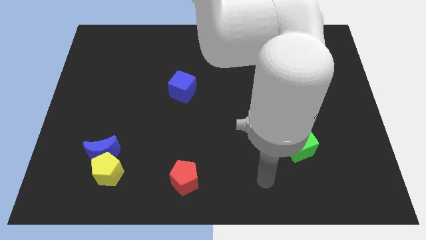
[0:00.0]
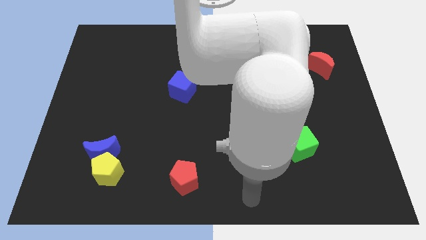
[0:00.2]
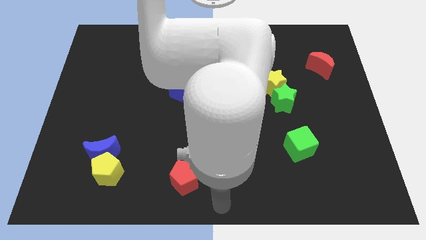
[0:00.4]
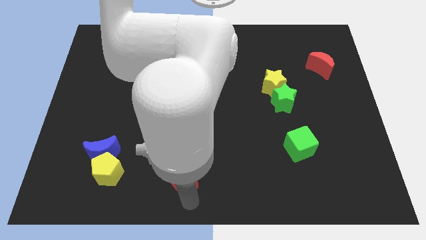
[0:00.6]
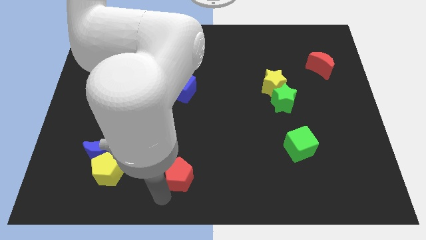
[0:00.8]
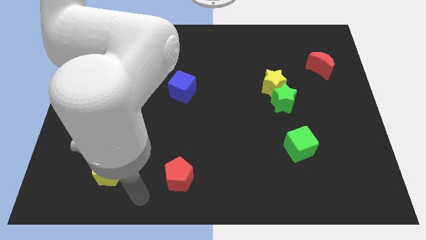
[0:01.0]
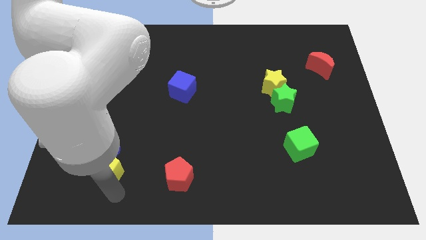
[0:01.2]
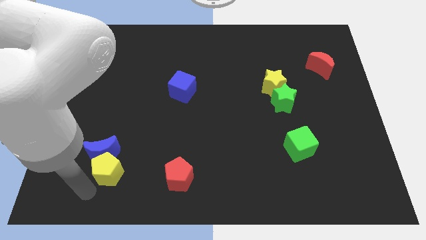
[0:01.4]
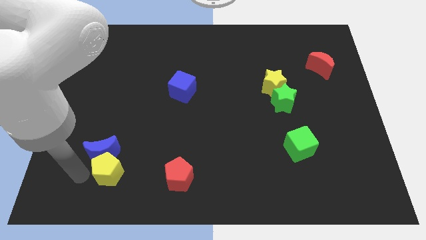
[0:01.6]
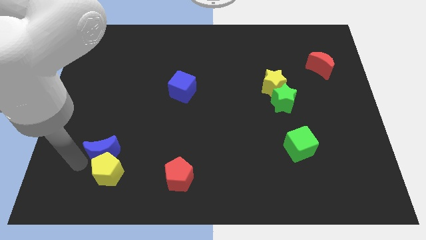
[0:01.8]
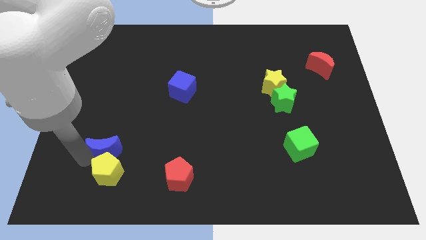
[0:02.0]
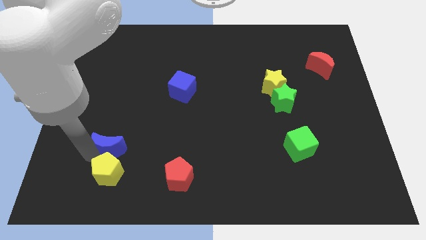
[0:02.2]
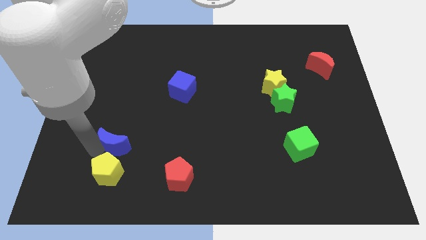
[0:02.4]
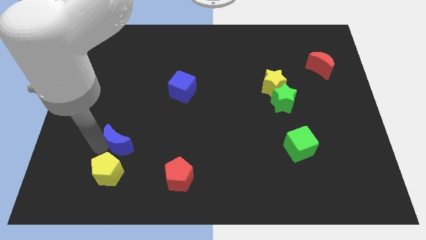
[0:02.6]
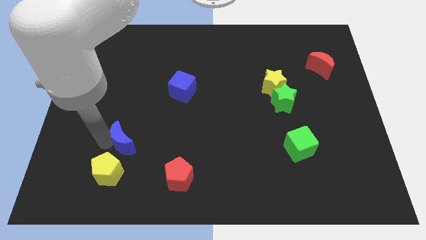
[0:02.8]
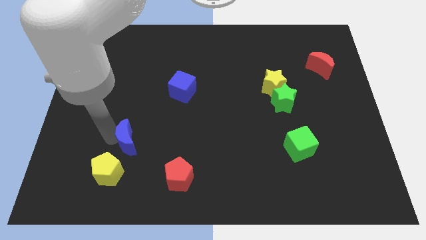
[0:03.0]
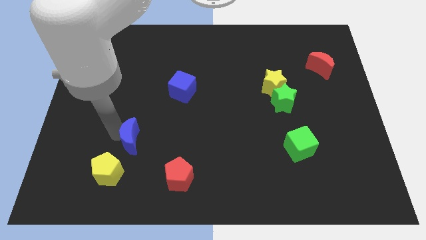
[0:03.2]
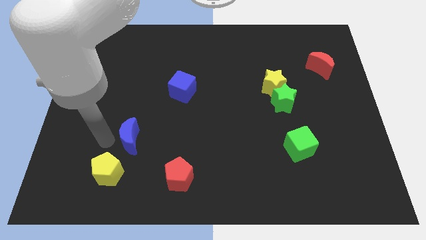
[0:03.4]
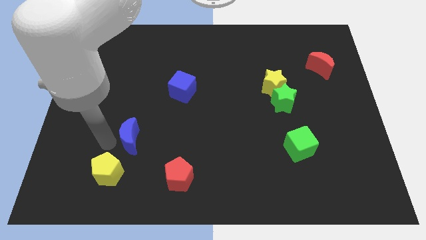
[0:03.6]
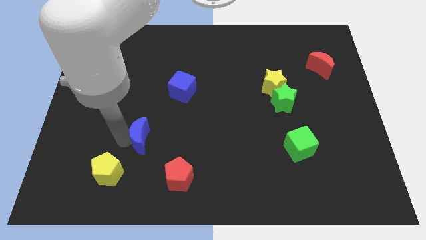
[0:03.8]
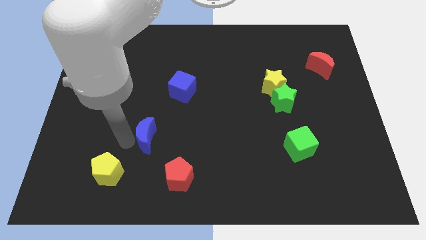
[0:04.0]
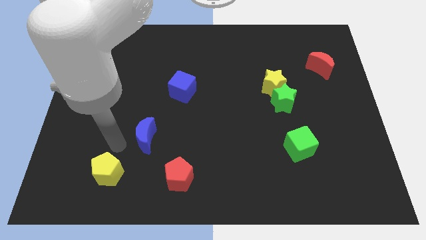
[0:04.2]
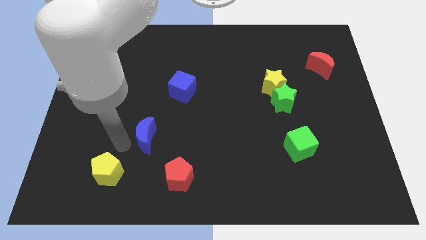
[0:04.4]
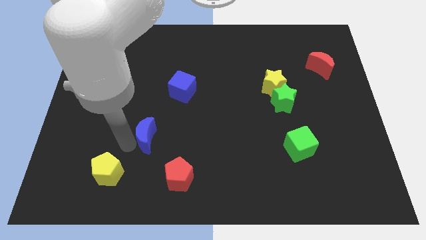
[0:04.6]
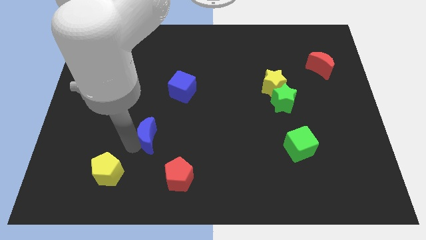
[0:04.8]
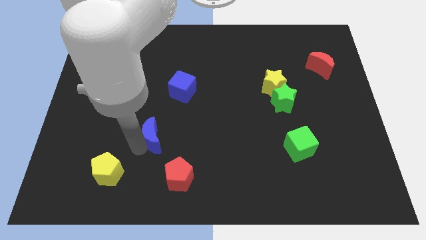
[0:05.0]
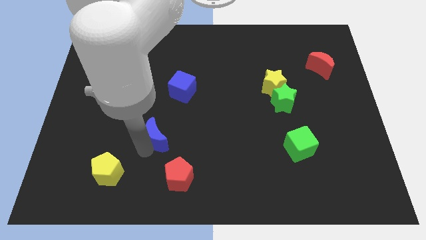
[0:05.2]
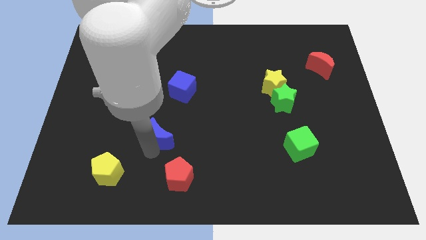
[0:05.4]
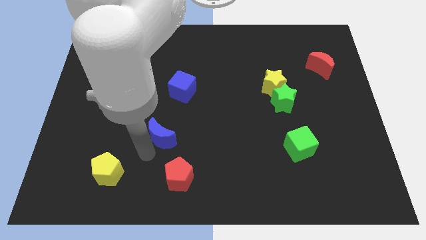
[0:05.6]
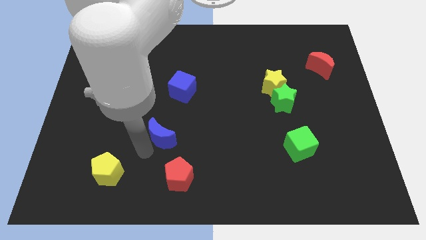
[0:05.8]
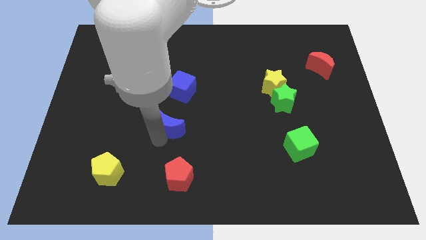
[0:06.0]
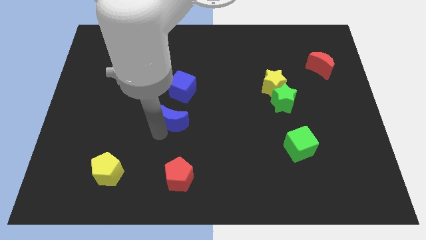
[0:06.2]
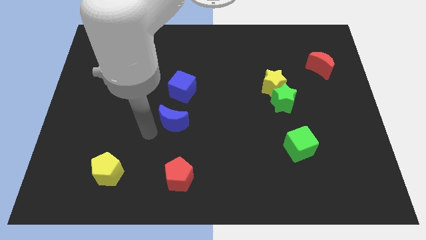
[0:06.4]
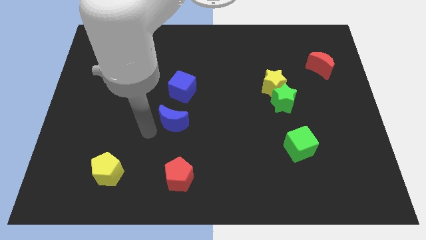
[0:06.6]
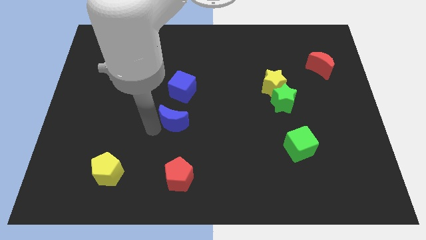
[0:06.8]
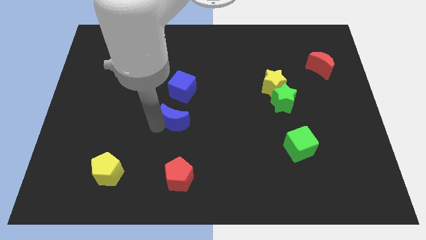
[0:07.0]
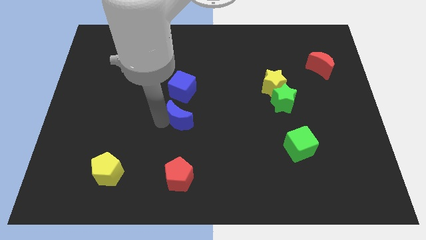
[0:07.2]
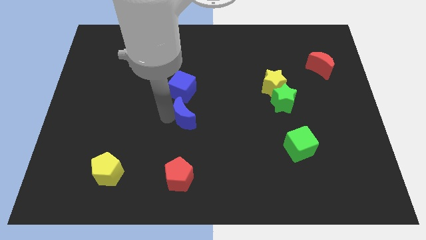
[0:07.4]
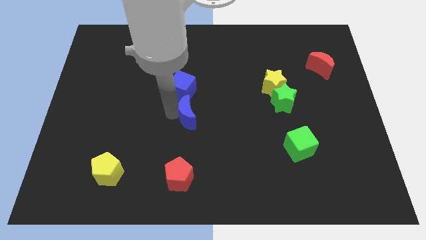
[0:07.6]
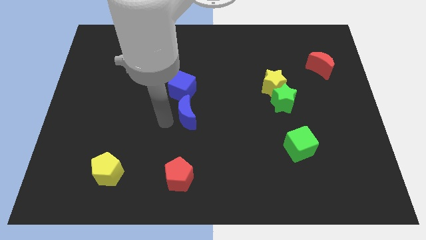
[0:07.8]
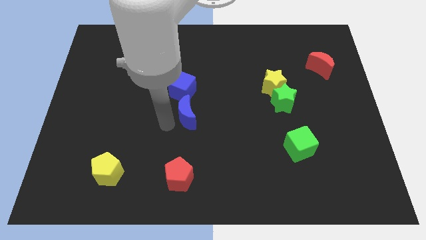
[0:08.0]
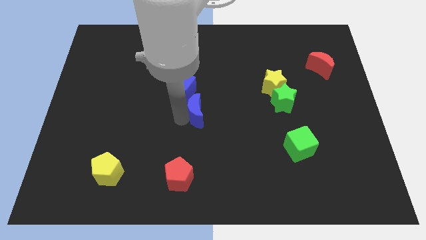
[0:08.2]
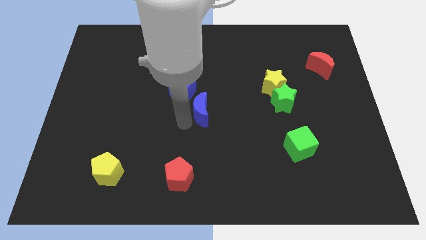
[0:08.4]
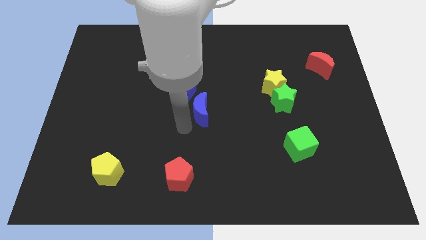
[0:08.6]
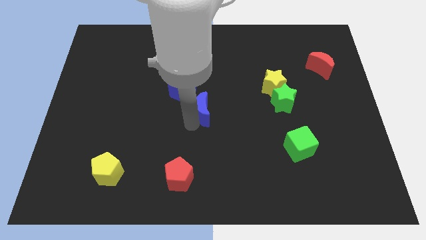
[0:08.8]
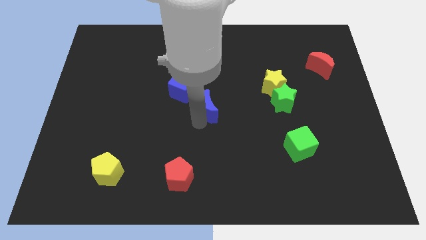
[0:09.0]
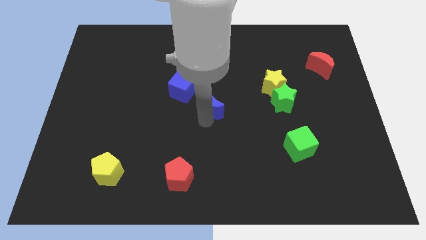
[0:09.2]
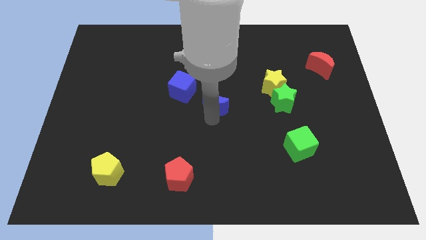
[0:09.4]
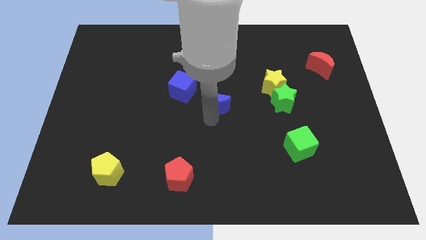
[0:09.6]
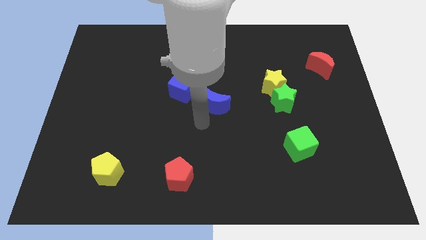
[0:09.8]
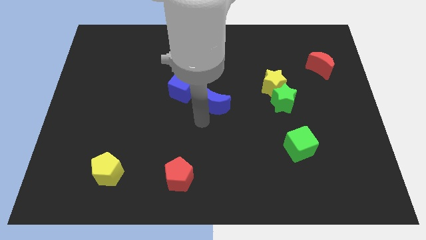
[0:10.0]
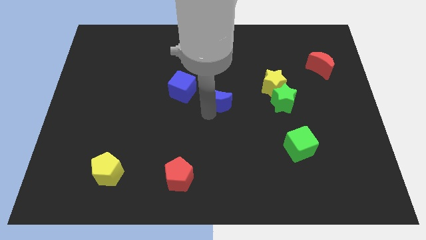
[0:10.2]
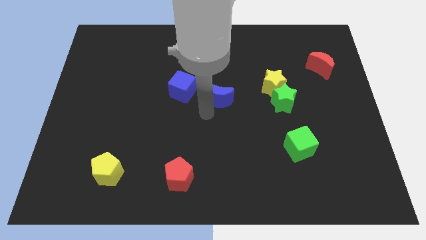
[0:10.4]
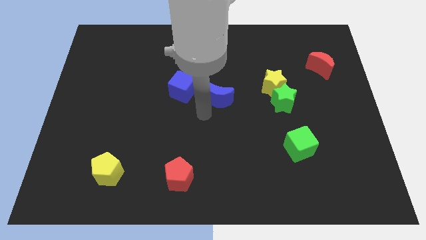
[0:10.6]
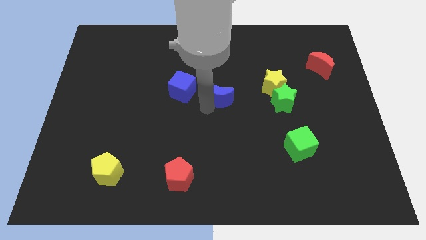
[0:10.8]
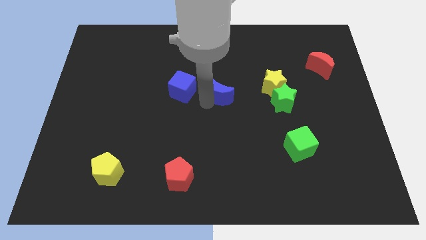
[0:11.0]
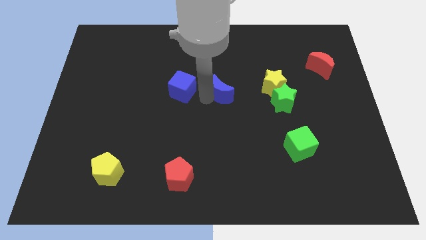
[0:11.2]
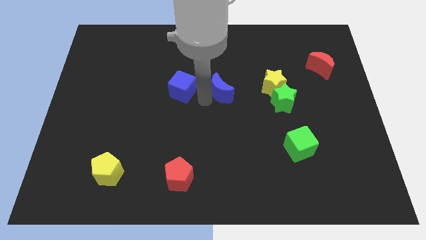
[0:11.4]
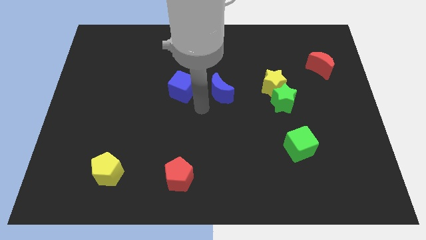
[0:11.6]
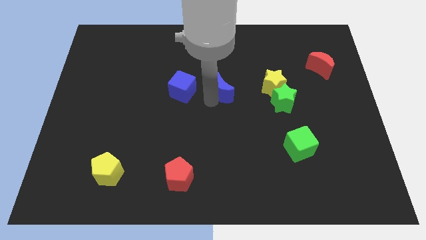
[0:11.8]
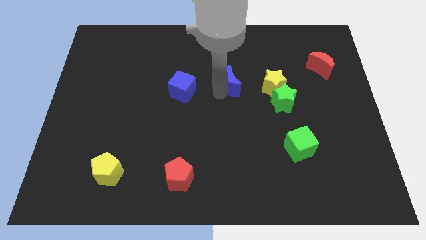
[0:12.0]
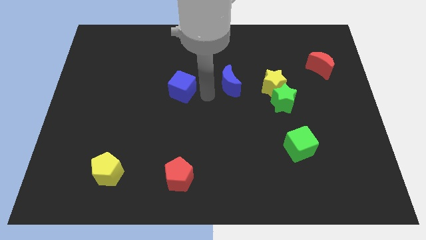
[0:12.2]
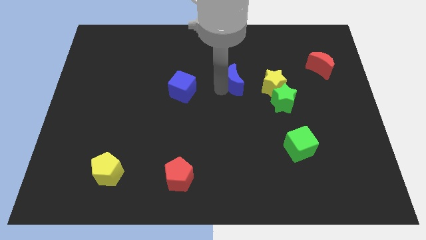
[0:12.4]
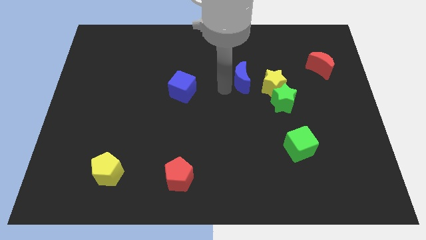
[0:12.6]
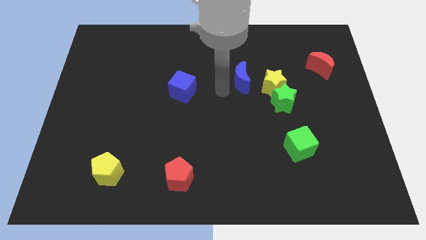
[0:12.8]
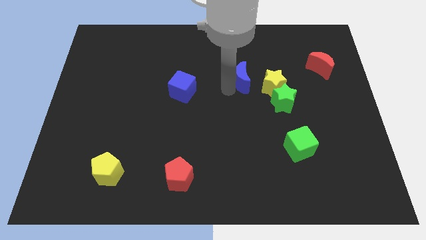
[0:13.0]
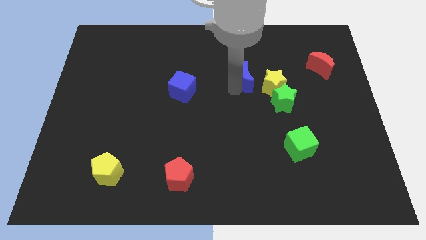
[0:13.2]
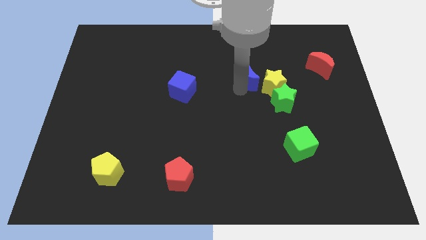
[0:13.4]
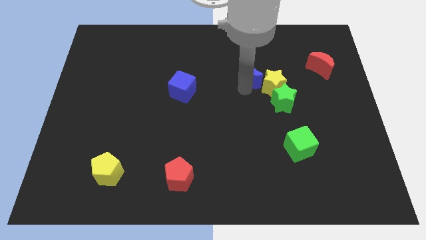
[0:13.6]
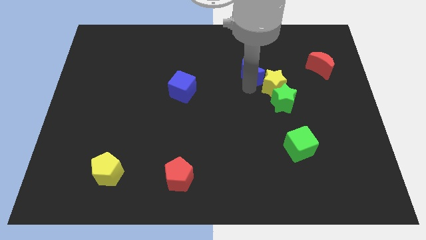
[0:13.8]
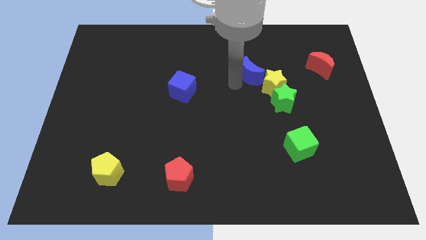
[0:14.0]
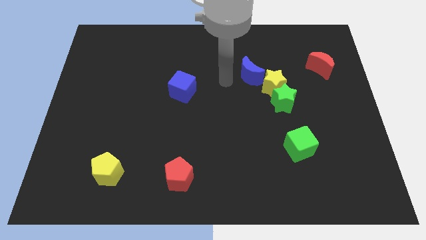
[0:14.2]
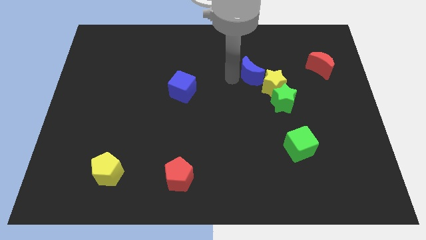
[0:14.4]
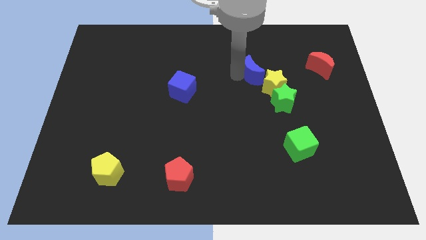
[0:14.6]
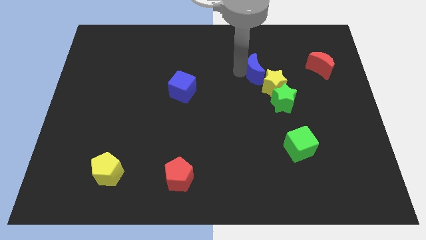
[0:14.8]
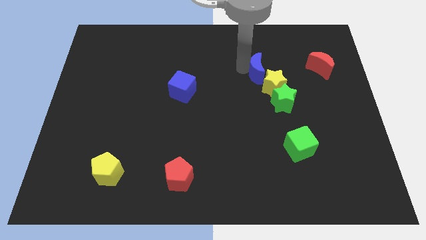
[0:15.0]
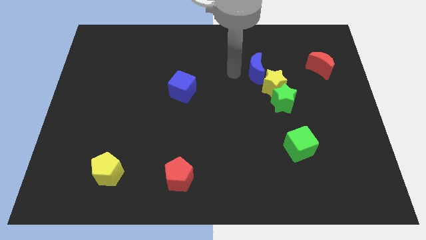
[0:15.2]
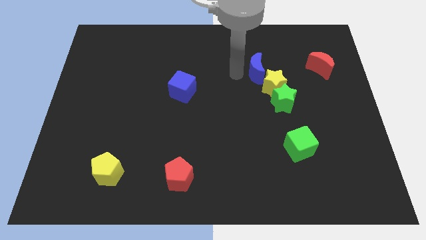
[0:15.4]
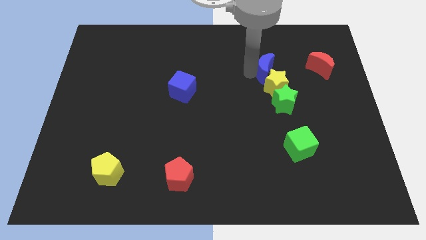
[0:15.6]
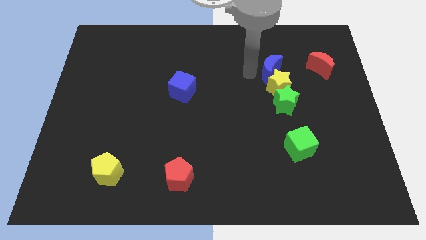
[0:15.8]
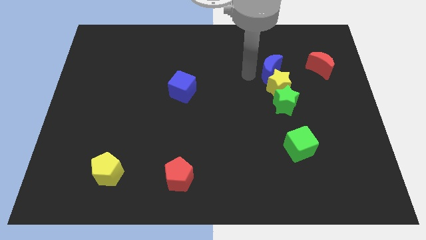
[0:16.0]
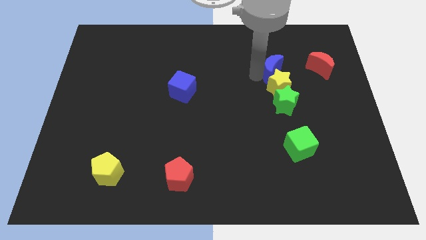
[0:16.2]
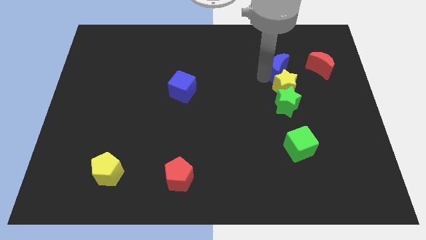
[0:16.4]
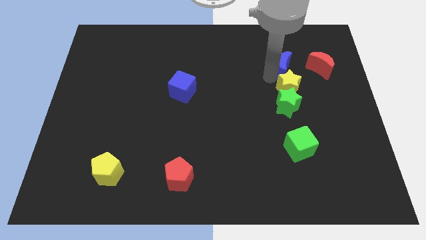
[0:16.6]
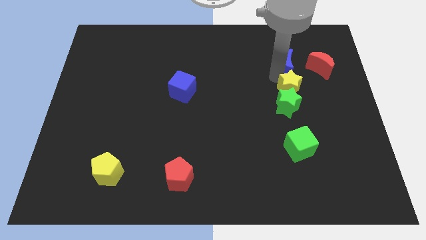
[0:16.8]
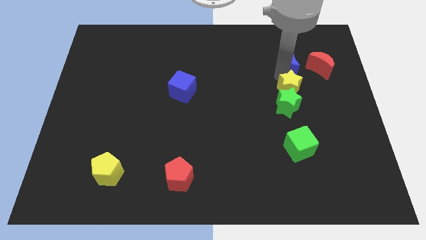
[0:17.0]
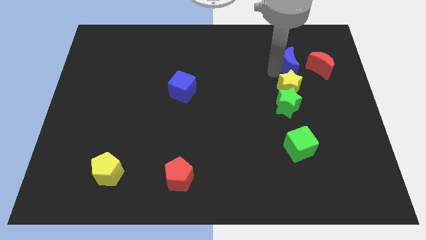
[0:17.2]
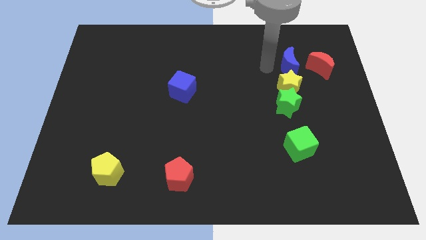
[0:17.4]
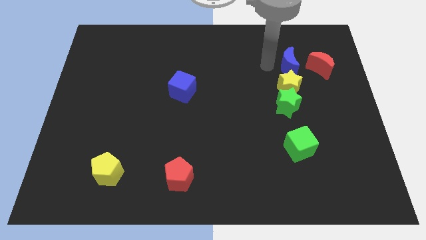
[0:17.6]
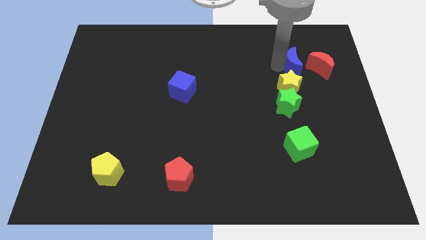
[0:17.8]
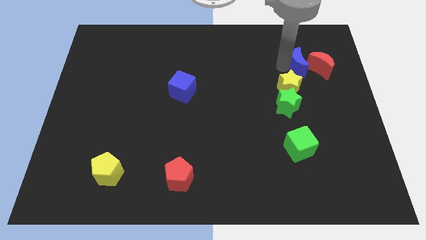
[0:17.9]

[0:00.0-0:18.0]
push the blue moon next to the red moon
